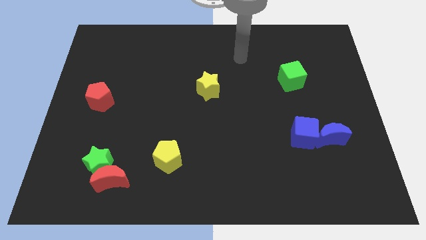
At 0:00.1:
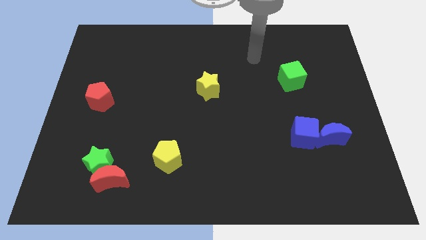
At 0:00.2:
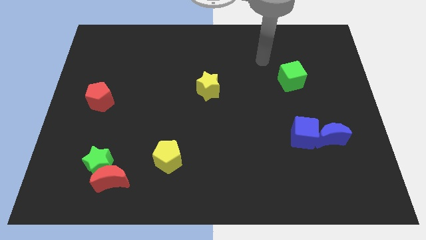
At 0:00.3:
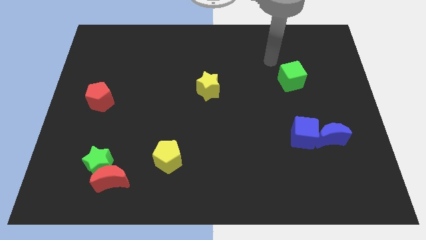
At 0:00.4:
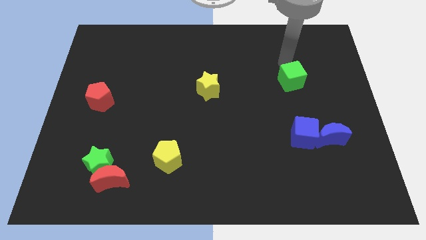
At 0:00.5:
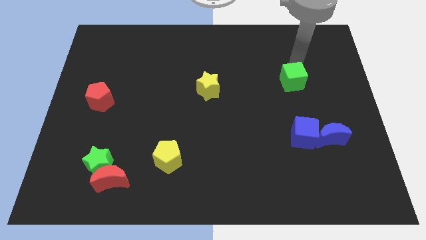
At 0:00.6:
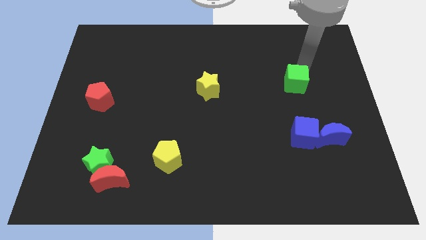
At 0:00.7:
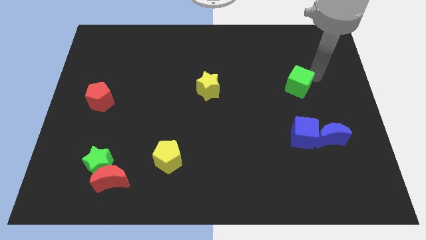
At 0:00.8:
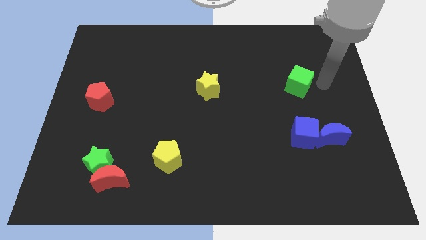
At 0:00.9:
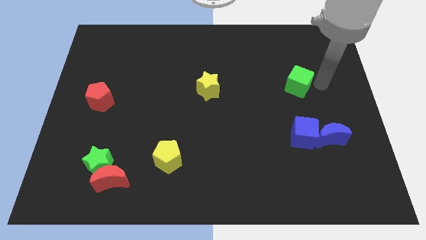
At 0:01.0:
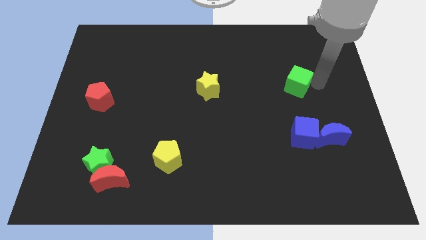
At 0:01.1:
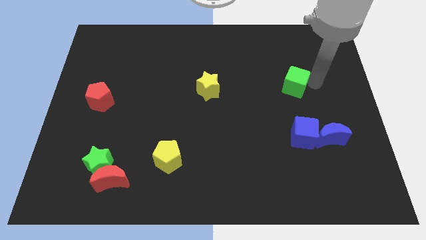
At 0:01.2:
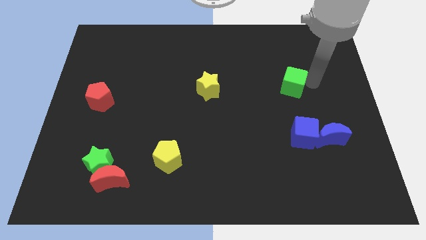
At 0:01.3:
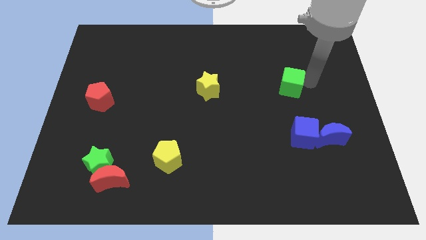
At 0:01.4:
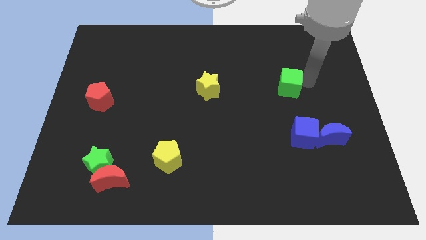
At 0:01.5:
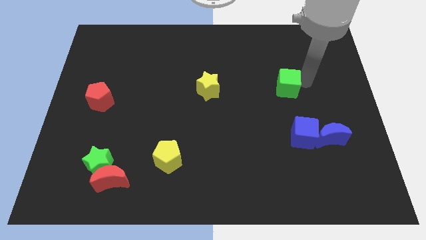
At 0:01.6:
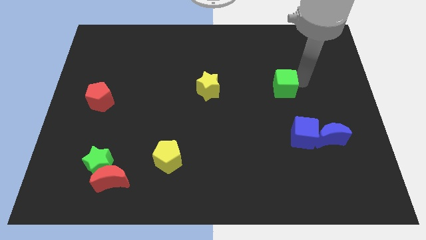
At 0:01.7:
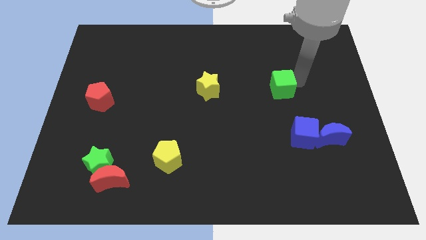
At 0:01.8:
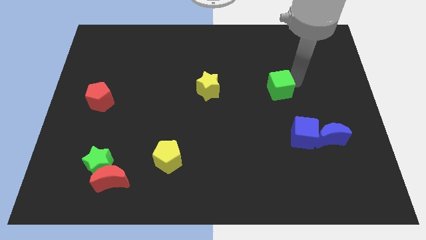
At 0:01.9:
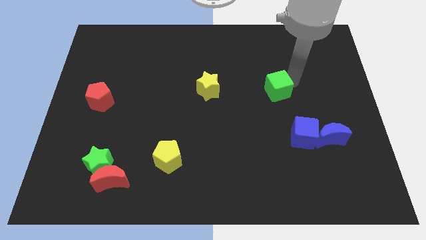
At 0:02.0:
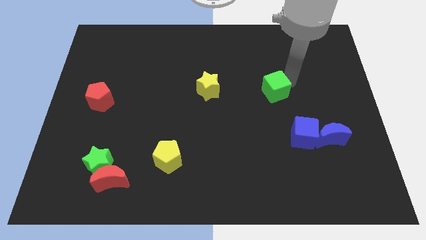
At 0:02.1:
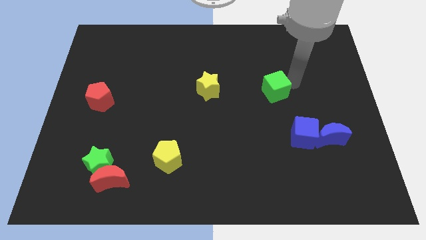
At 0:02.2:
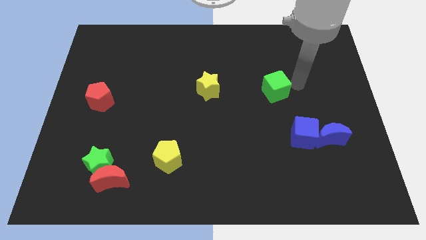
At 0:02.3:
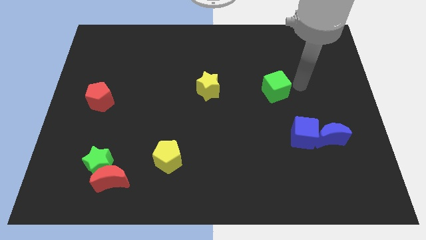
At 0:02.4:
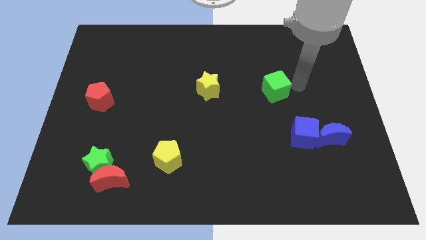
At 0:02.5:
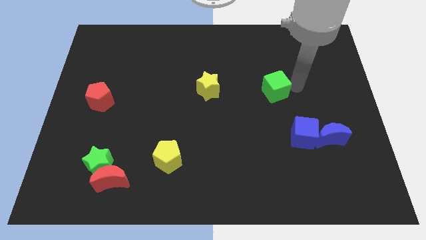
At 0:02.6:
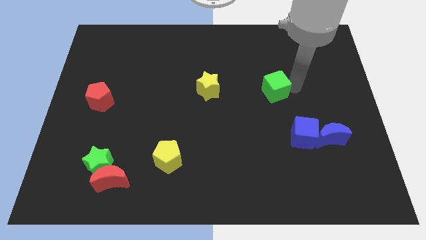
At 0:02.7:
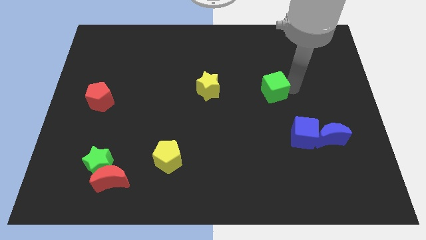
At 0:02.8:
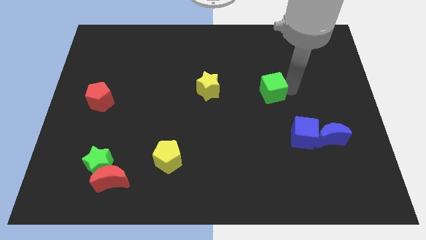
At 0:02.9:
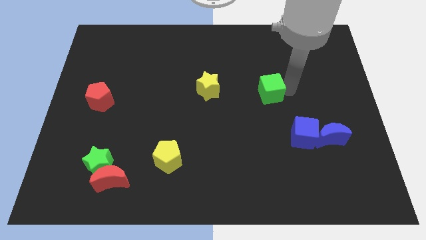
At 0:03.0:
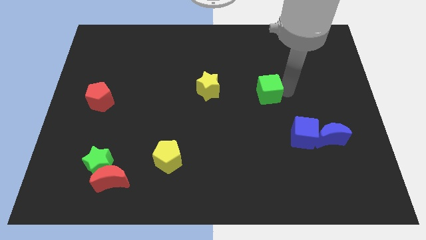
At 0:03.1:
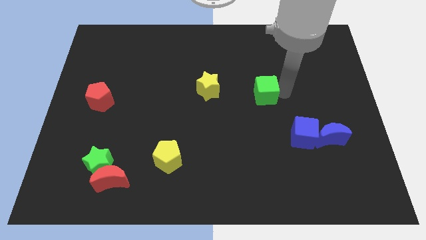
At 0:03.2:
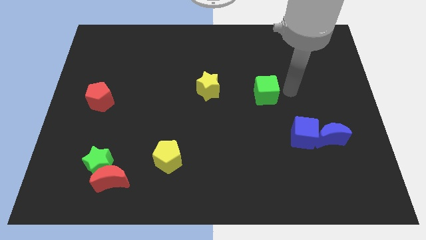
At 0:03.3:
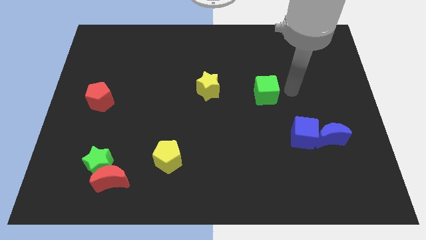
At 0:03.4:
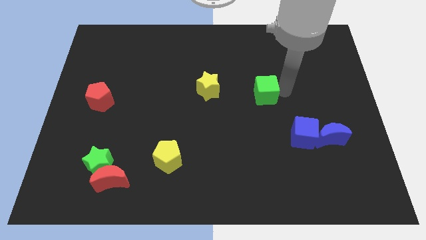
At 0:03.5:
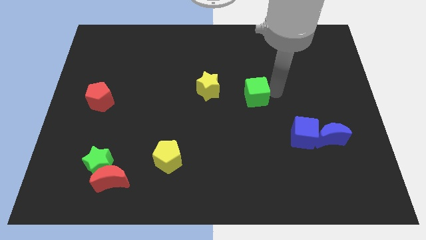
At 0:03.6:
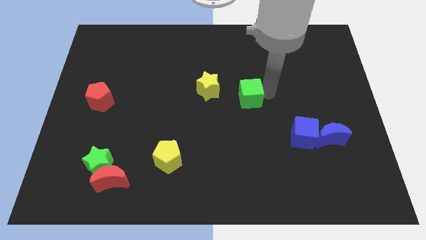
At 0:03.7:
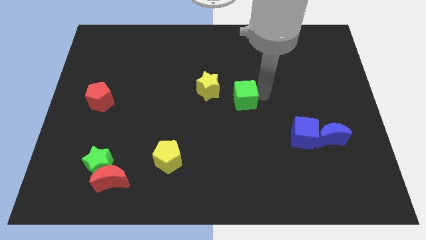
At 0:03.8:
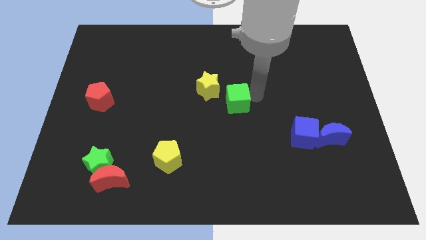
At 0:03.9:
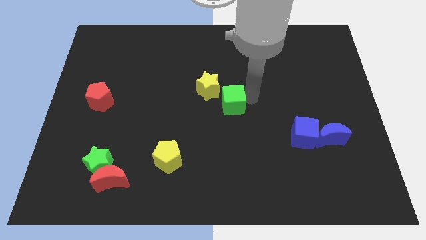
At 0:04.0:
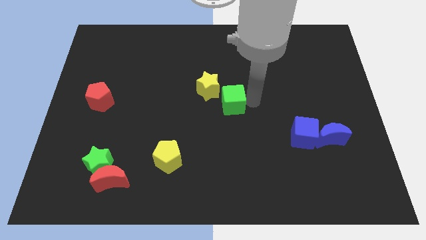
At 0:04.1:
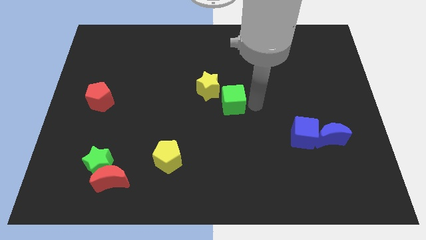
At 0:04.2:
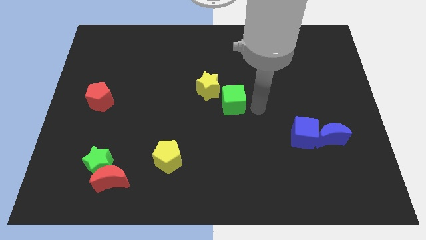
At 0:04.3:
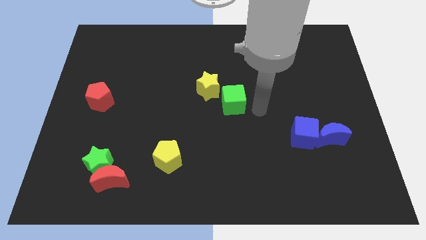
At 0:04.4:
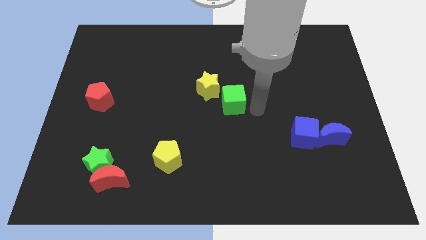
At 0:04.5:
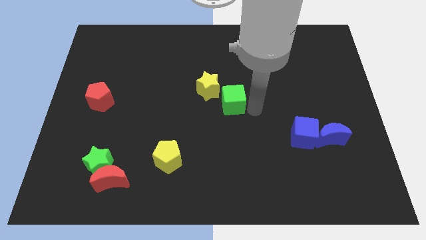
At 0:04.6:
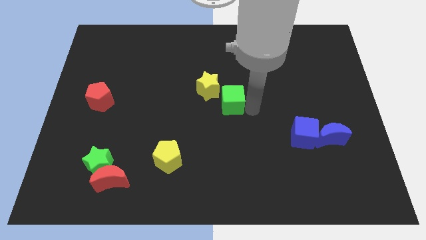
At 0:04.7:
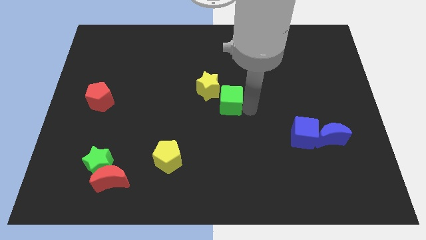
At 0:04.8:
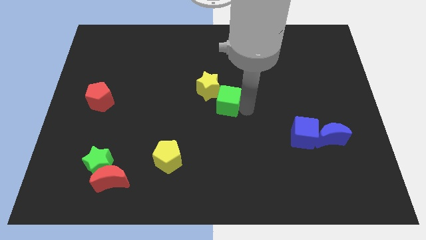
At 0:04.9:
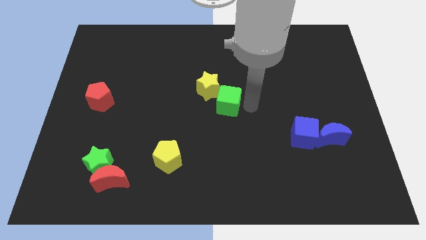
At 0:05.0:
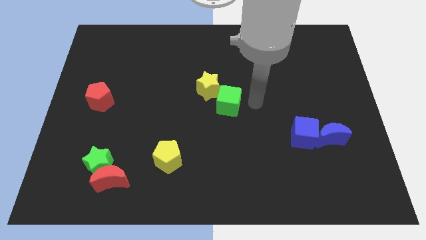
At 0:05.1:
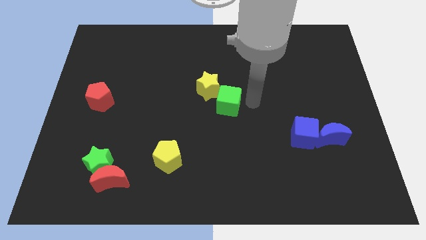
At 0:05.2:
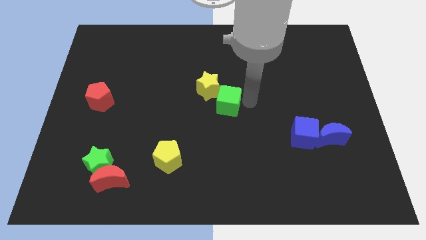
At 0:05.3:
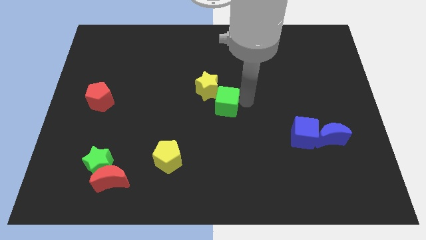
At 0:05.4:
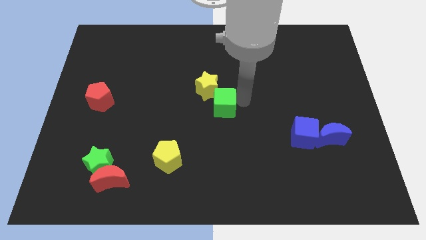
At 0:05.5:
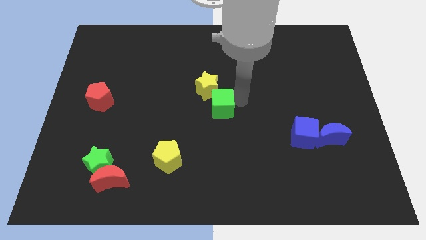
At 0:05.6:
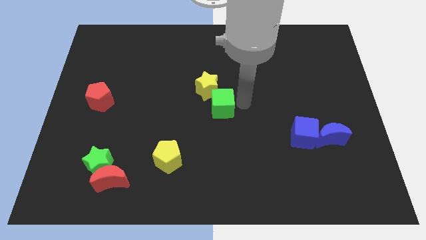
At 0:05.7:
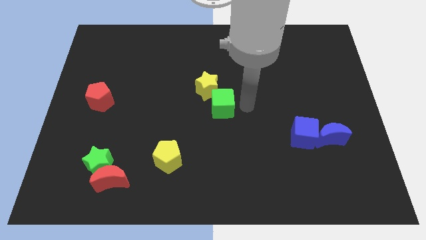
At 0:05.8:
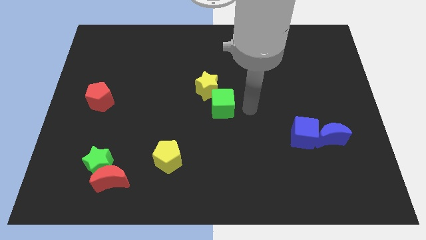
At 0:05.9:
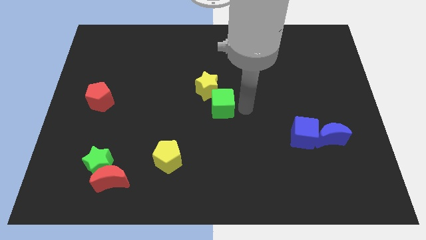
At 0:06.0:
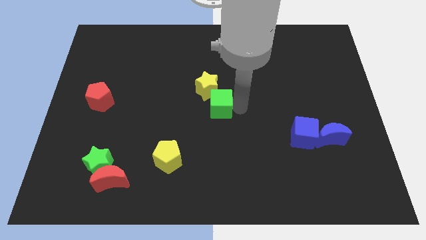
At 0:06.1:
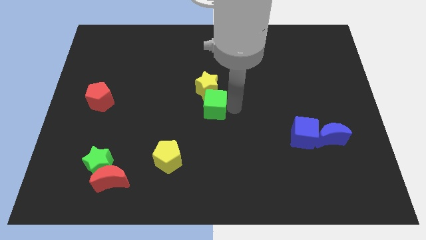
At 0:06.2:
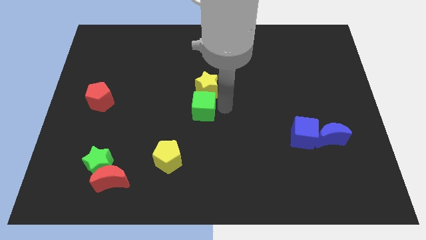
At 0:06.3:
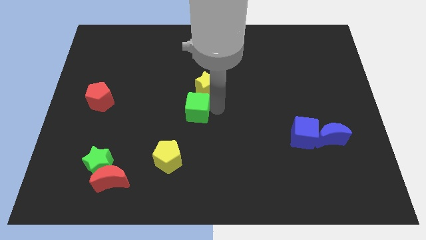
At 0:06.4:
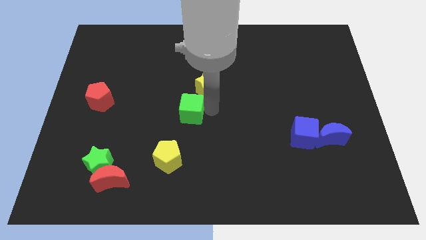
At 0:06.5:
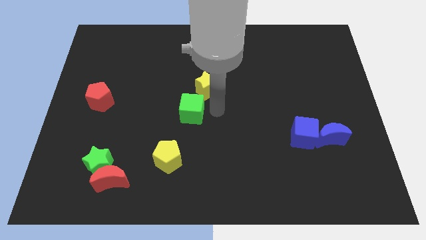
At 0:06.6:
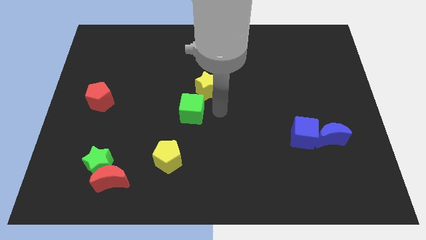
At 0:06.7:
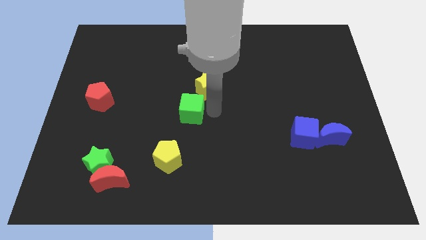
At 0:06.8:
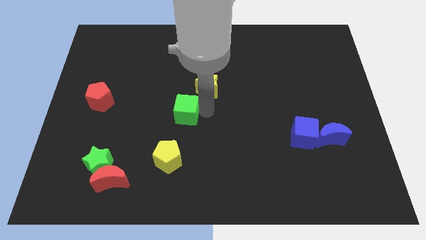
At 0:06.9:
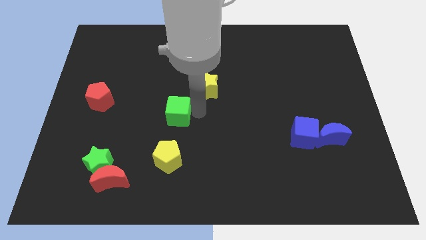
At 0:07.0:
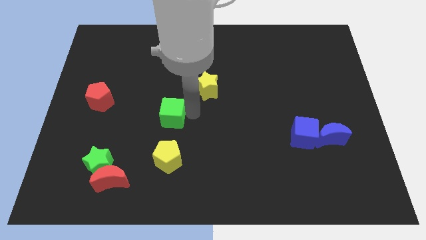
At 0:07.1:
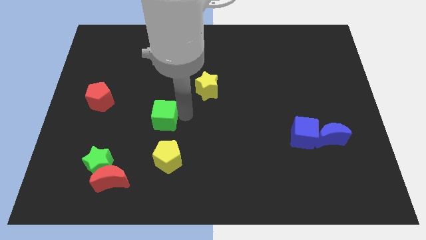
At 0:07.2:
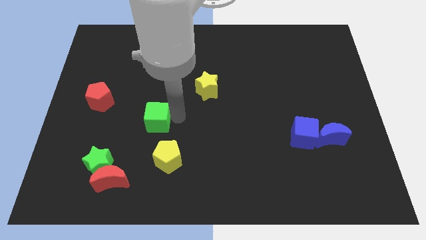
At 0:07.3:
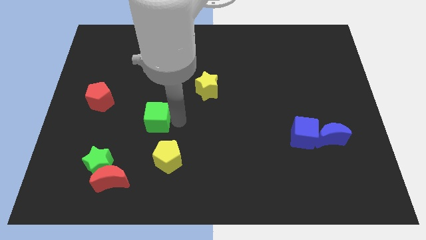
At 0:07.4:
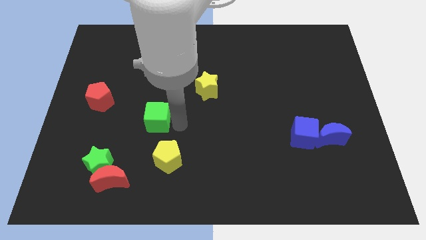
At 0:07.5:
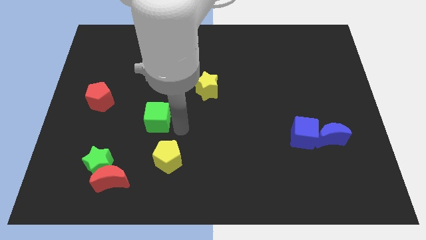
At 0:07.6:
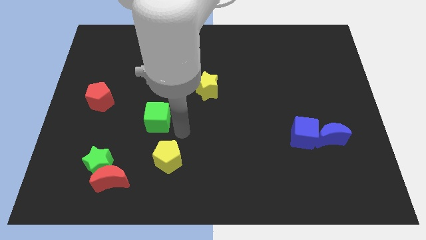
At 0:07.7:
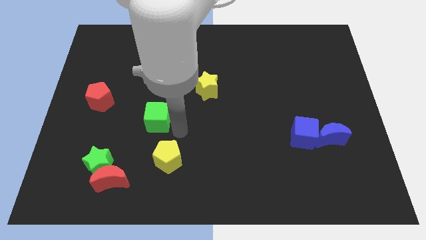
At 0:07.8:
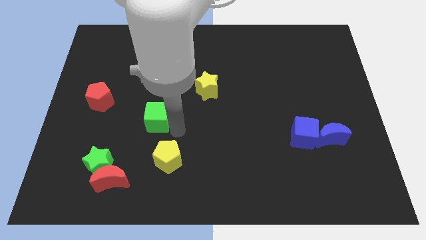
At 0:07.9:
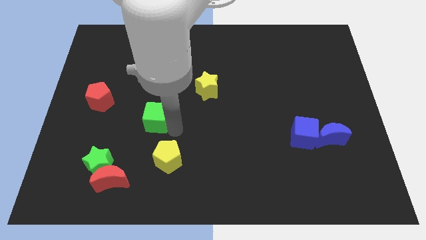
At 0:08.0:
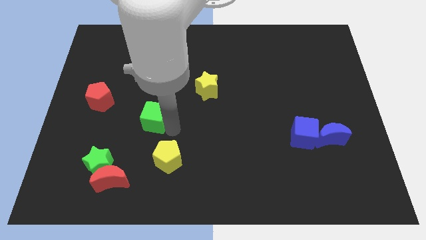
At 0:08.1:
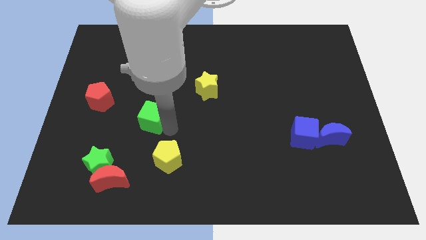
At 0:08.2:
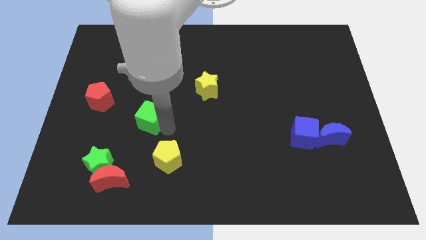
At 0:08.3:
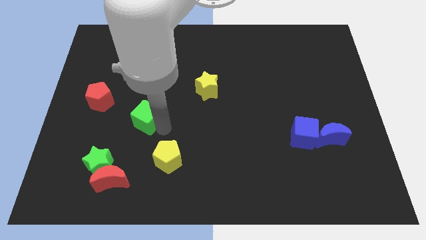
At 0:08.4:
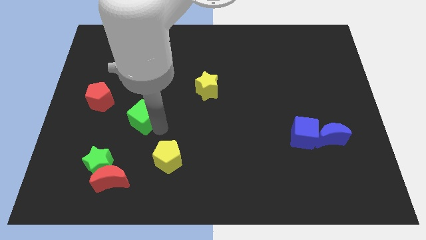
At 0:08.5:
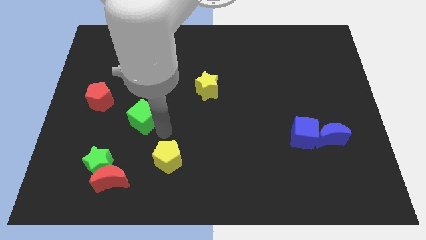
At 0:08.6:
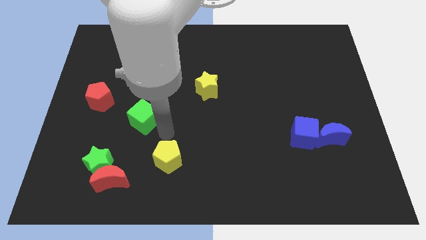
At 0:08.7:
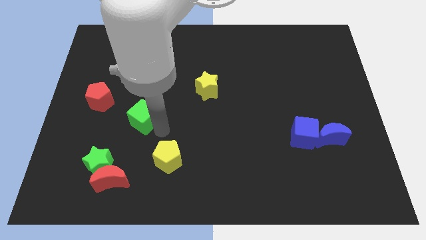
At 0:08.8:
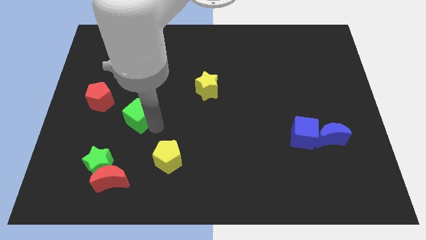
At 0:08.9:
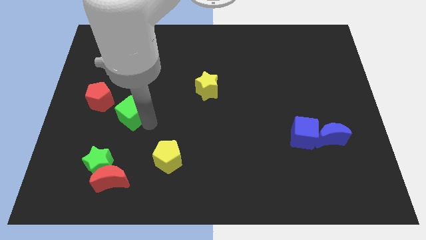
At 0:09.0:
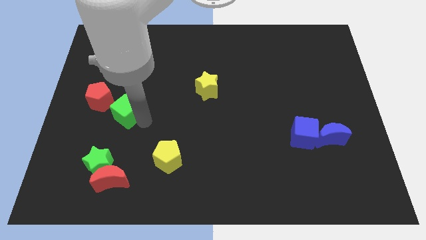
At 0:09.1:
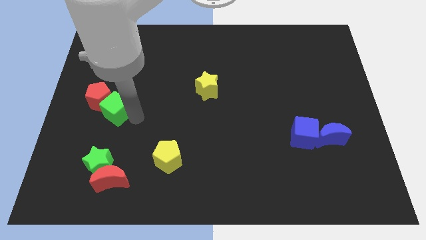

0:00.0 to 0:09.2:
slide the green cube close to the red pentagon
